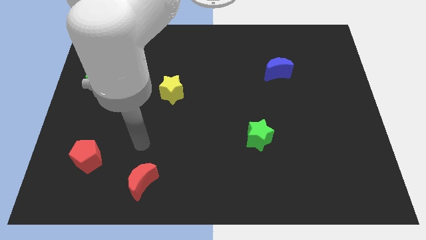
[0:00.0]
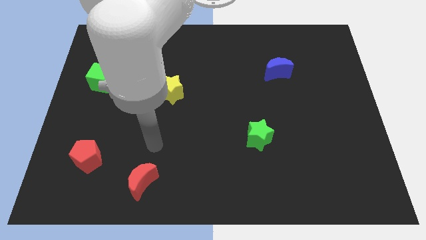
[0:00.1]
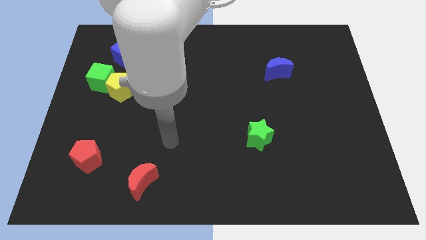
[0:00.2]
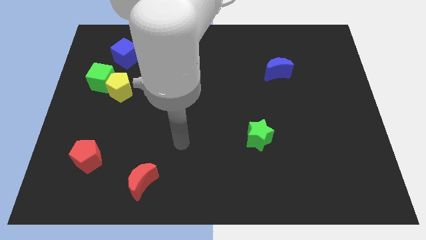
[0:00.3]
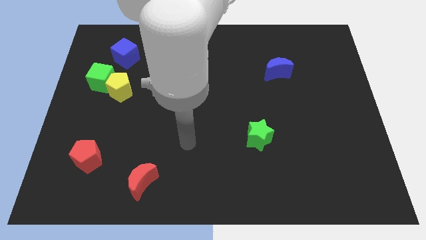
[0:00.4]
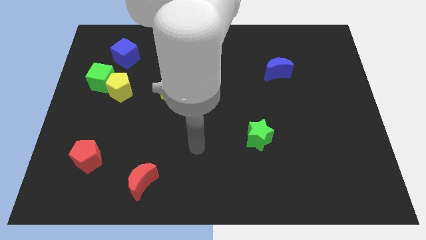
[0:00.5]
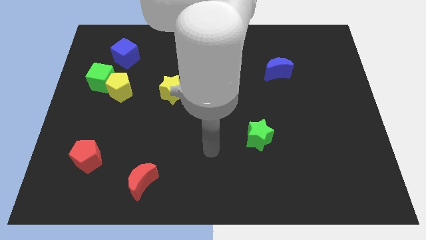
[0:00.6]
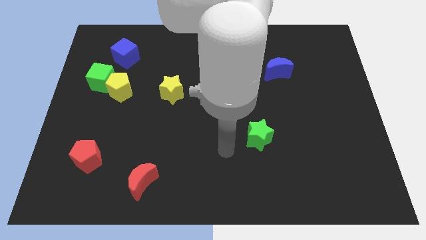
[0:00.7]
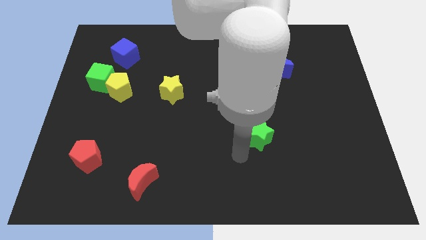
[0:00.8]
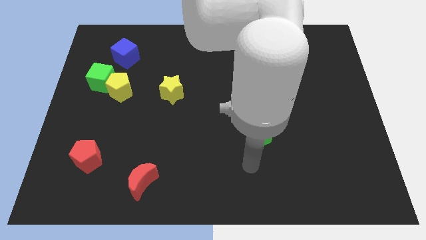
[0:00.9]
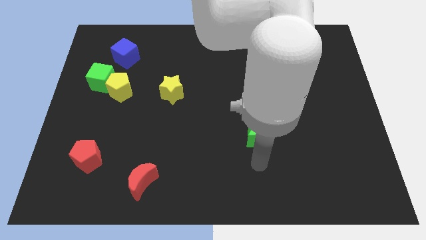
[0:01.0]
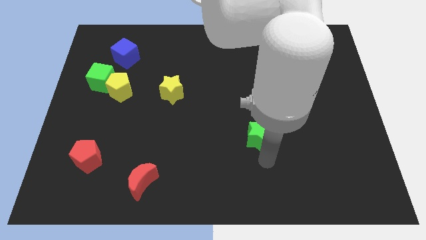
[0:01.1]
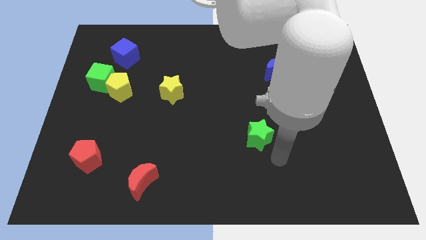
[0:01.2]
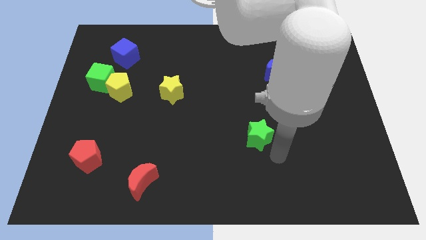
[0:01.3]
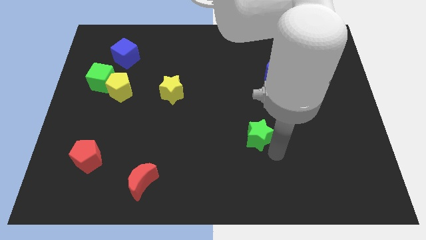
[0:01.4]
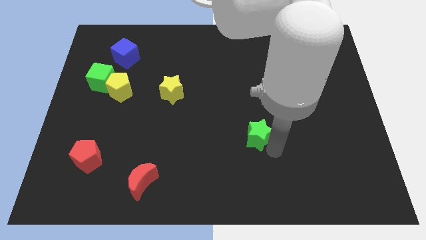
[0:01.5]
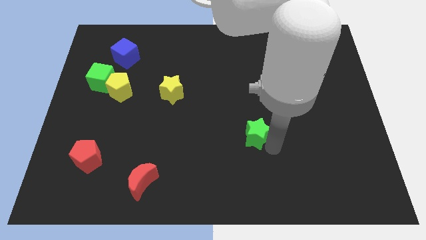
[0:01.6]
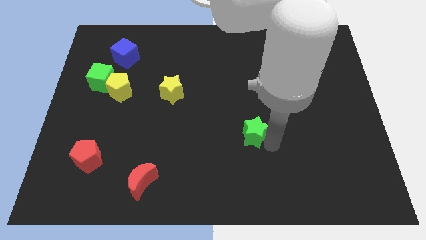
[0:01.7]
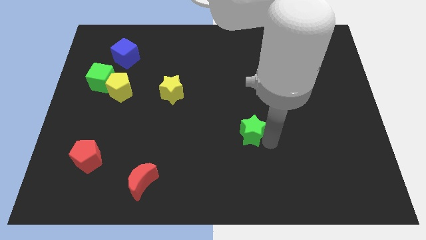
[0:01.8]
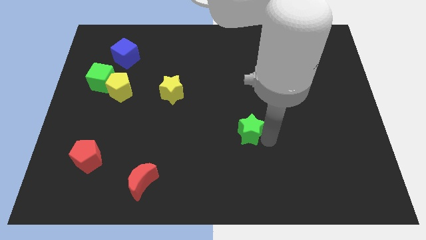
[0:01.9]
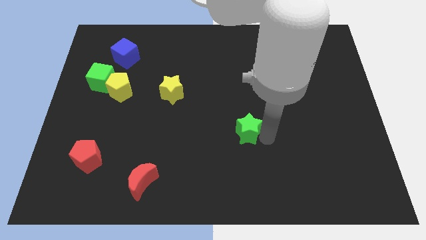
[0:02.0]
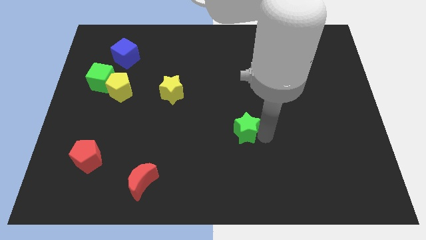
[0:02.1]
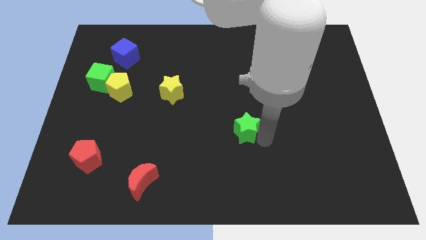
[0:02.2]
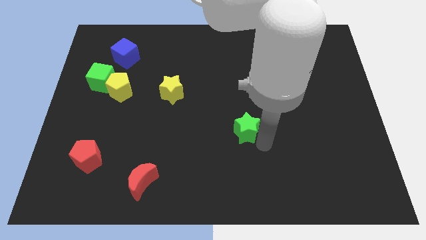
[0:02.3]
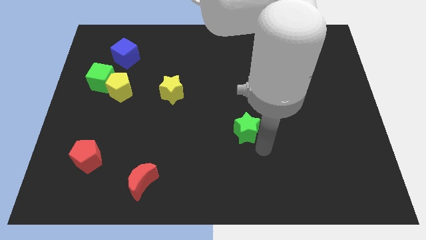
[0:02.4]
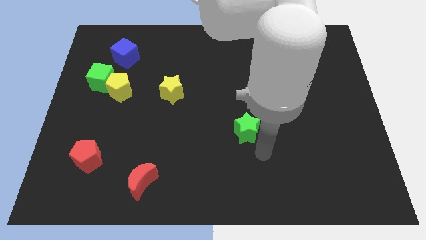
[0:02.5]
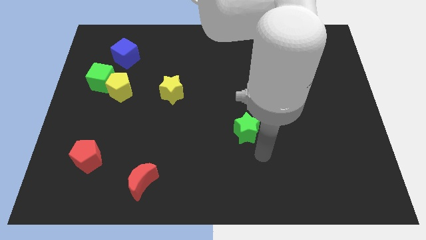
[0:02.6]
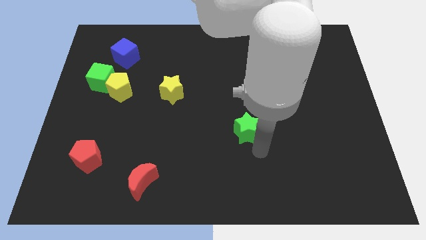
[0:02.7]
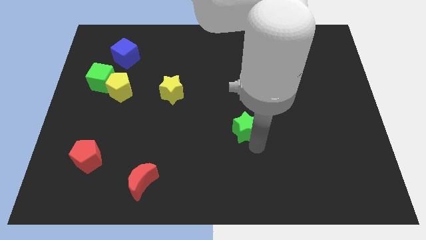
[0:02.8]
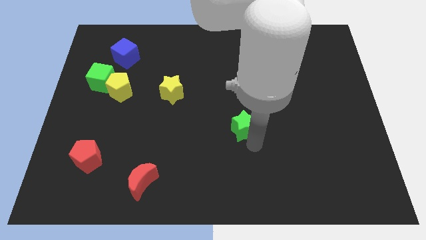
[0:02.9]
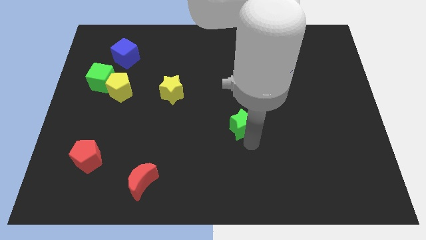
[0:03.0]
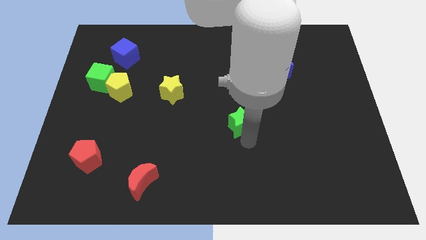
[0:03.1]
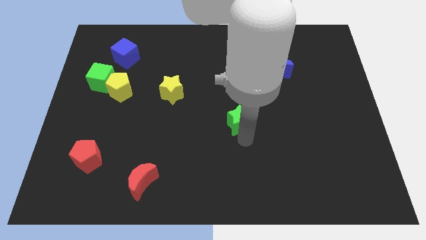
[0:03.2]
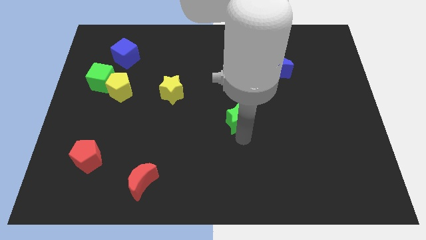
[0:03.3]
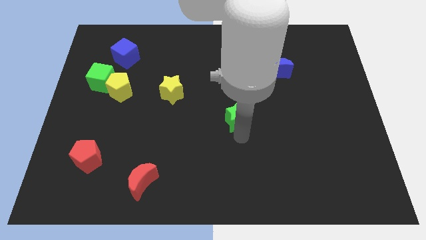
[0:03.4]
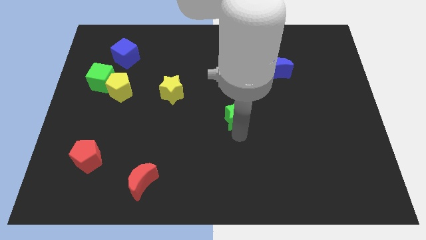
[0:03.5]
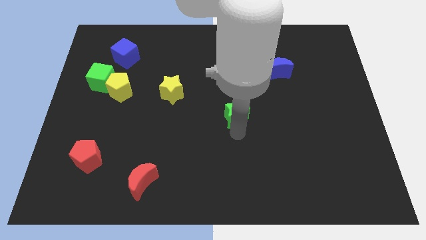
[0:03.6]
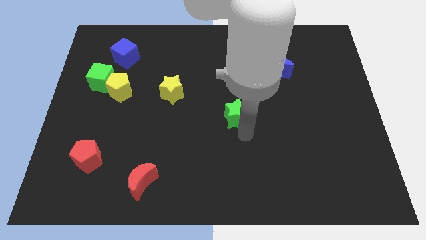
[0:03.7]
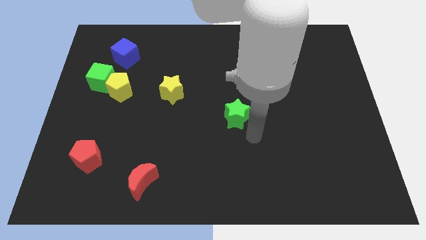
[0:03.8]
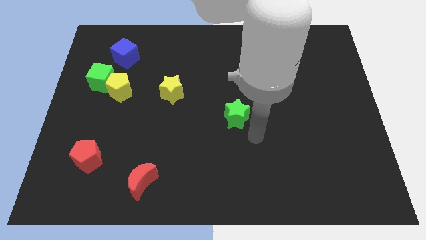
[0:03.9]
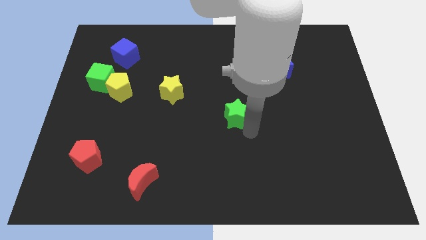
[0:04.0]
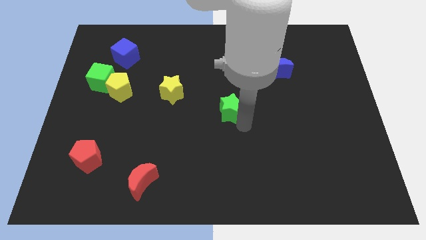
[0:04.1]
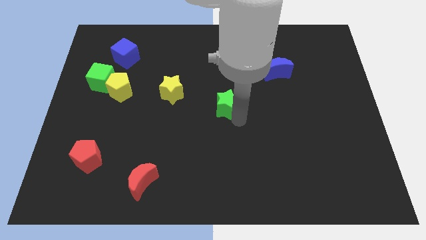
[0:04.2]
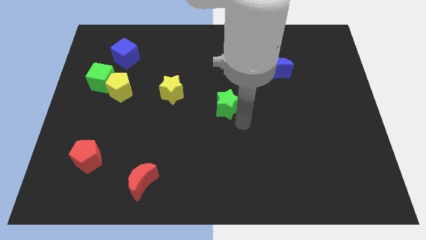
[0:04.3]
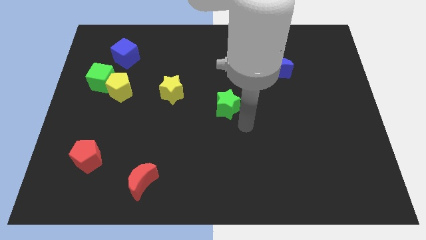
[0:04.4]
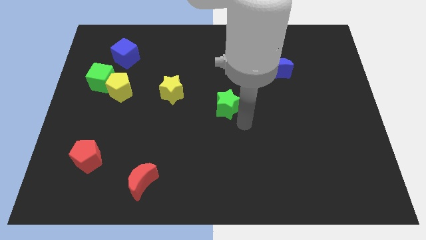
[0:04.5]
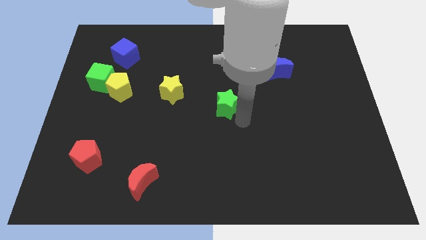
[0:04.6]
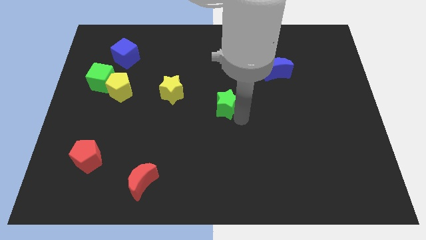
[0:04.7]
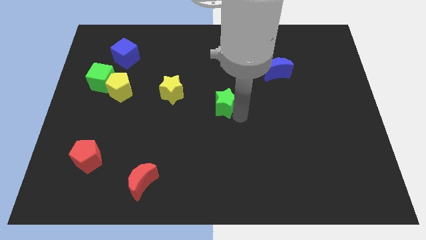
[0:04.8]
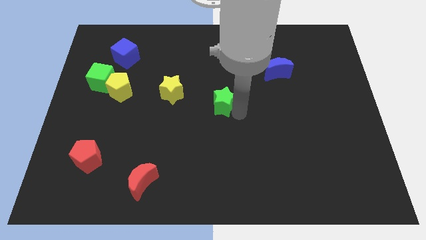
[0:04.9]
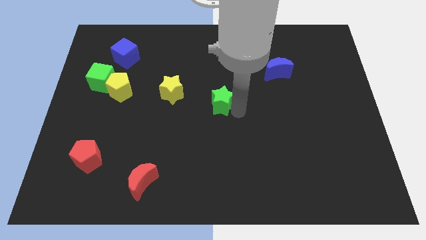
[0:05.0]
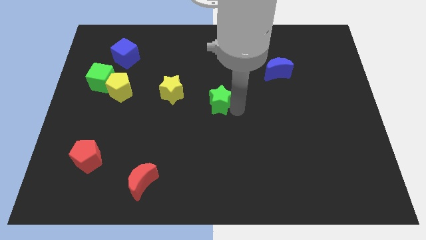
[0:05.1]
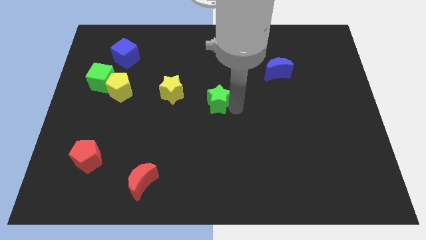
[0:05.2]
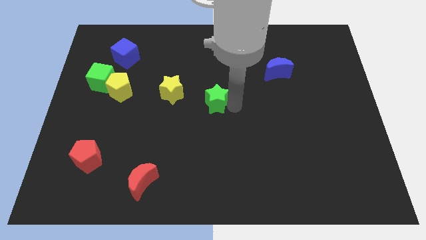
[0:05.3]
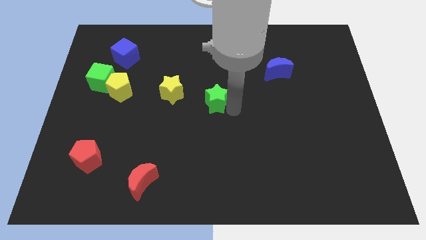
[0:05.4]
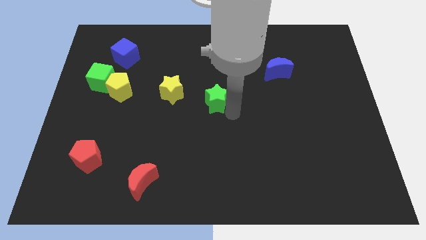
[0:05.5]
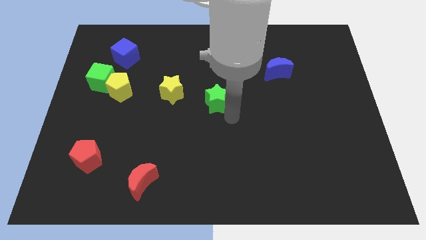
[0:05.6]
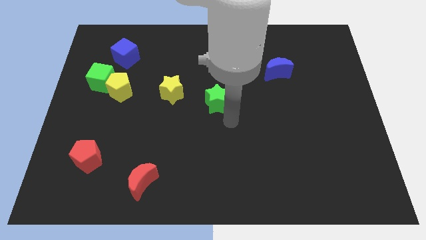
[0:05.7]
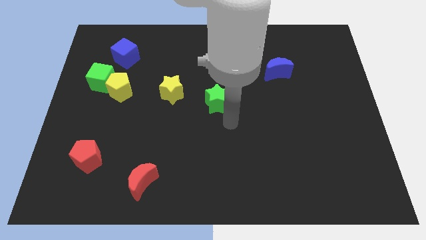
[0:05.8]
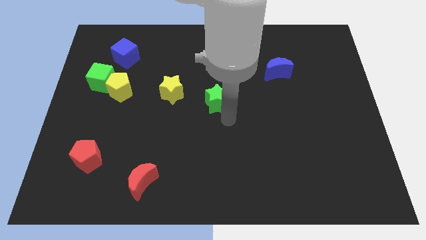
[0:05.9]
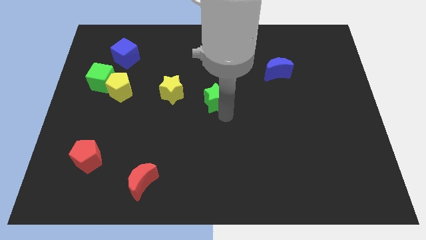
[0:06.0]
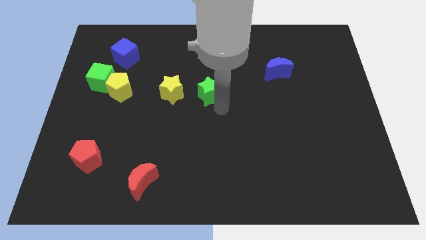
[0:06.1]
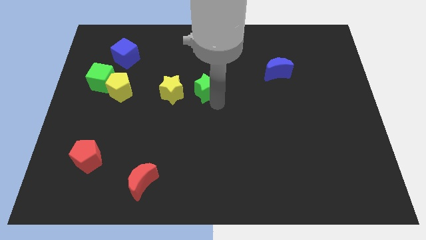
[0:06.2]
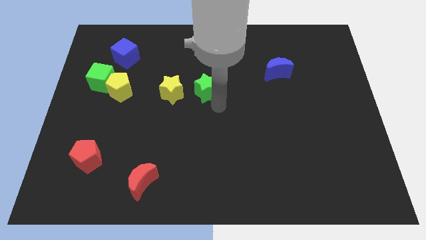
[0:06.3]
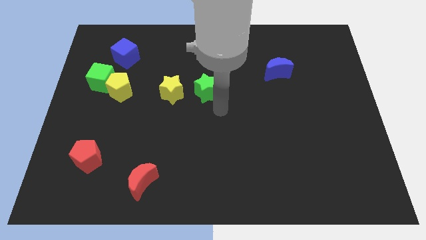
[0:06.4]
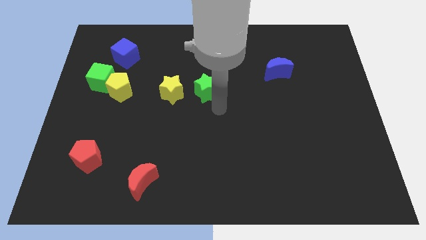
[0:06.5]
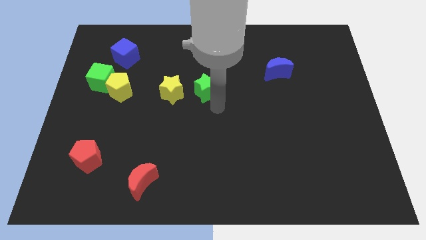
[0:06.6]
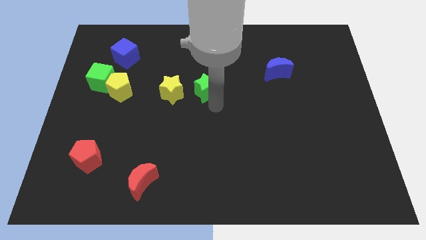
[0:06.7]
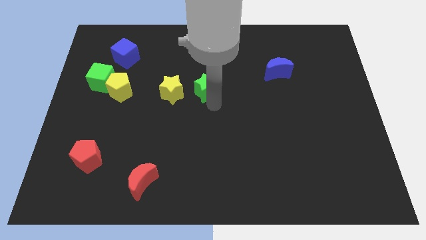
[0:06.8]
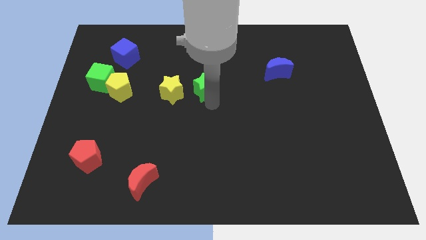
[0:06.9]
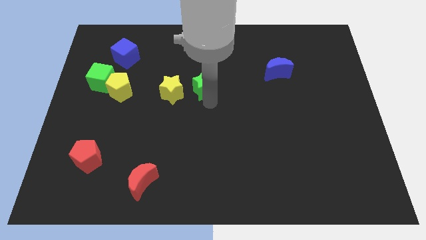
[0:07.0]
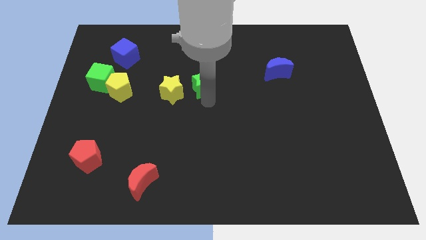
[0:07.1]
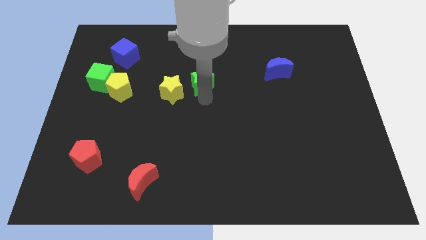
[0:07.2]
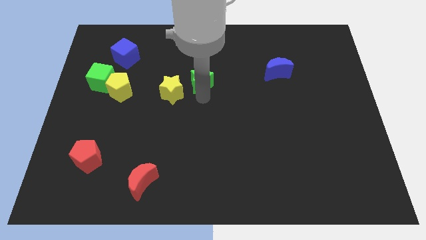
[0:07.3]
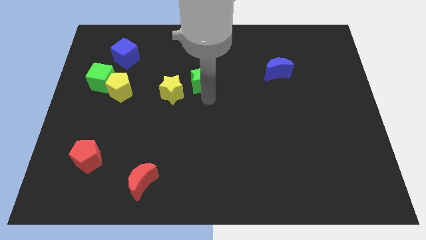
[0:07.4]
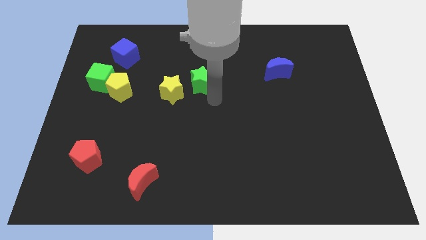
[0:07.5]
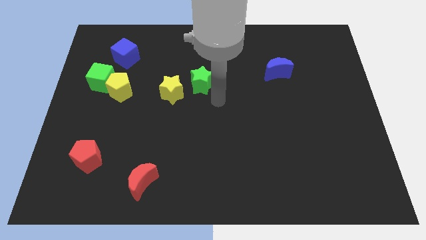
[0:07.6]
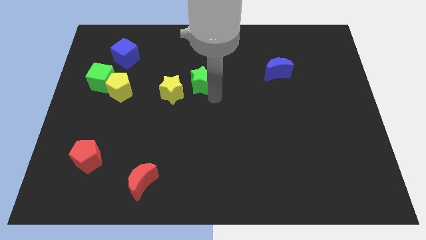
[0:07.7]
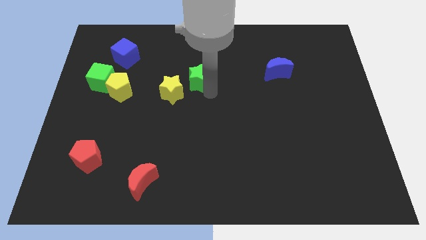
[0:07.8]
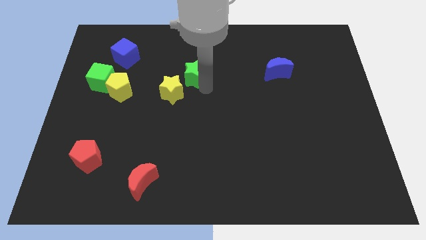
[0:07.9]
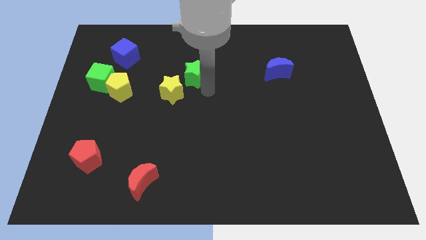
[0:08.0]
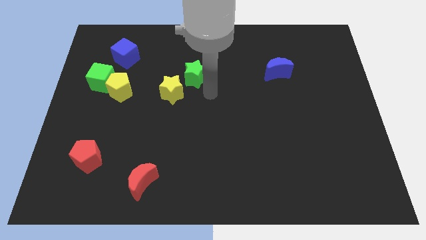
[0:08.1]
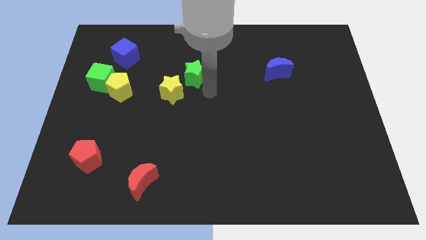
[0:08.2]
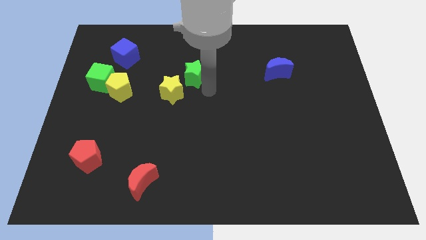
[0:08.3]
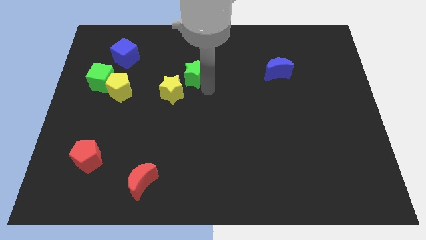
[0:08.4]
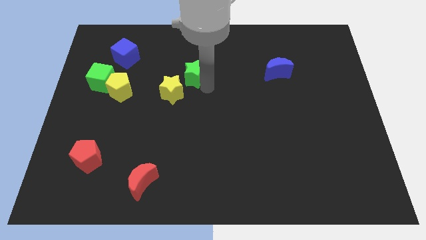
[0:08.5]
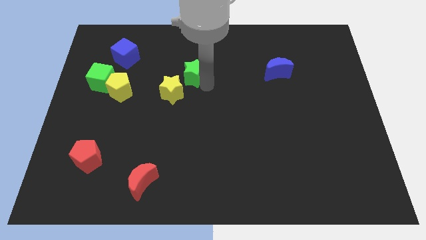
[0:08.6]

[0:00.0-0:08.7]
push the green star above the yellow star
